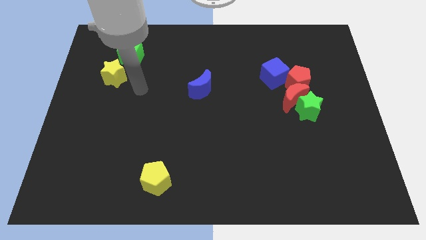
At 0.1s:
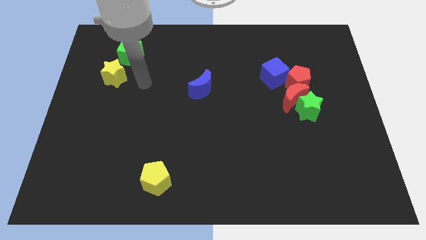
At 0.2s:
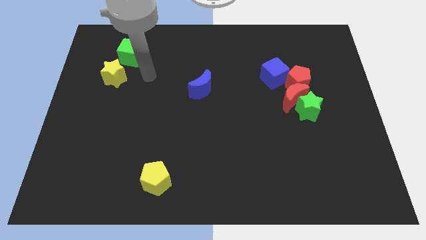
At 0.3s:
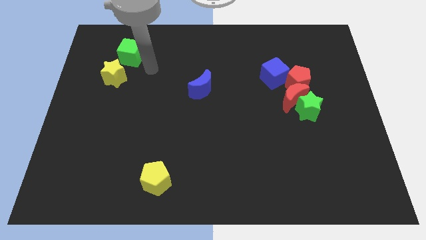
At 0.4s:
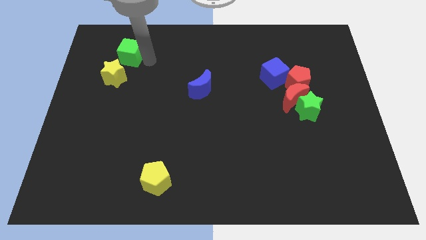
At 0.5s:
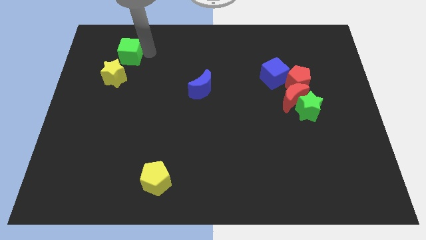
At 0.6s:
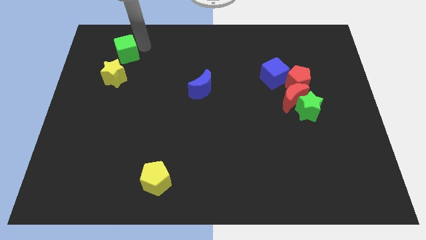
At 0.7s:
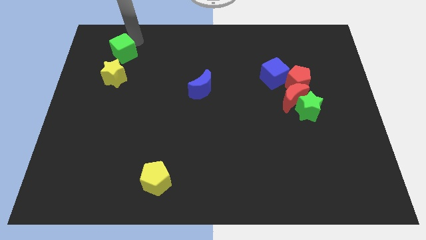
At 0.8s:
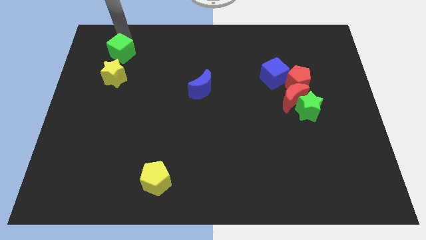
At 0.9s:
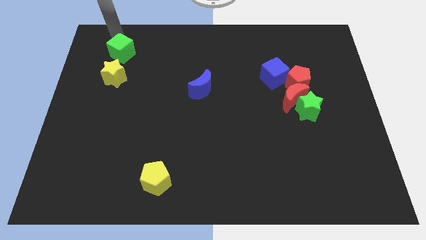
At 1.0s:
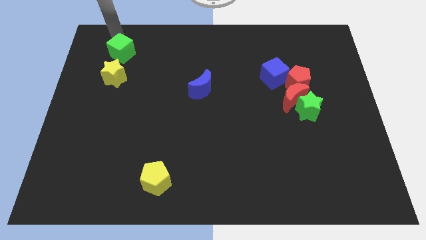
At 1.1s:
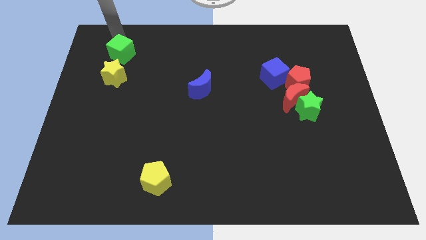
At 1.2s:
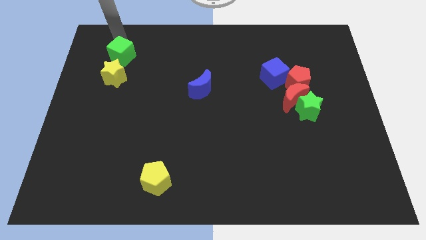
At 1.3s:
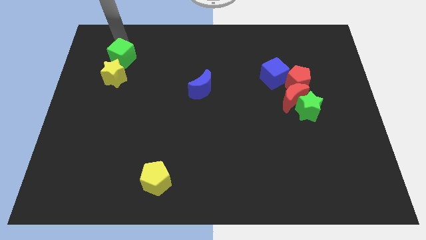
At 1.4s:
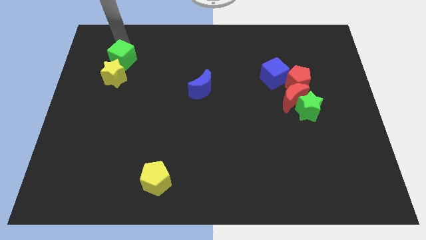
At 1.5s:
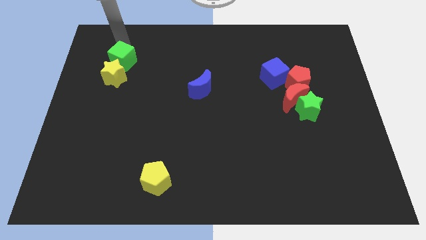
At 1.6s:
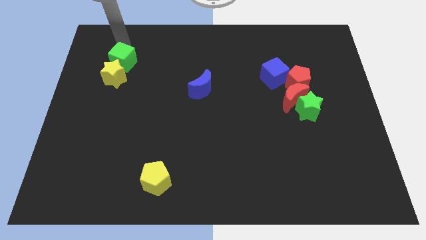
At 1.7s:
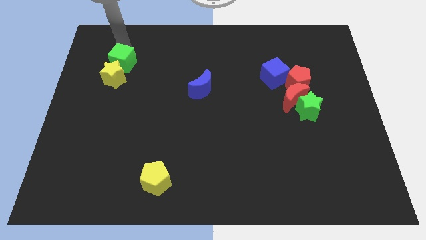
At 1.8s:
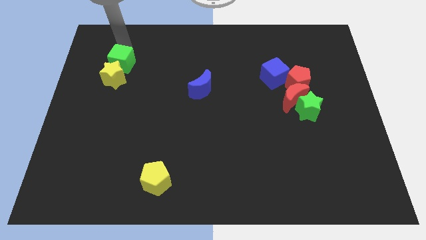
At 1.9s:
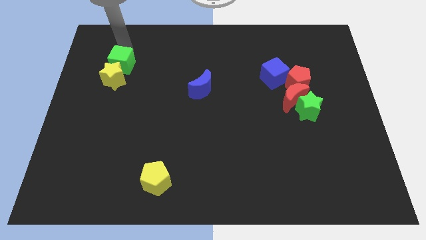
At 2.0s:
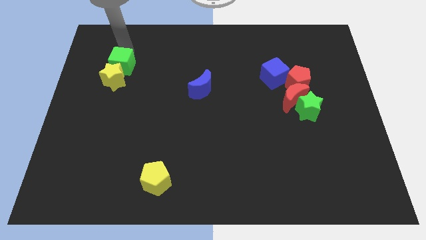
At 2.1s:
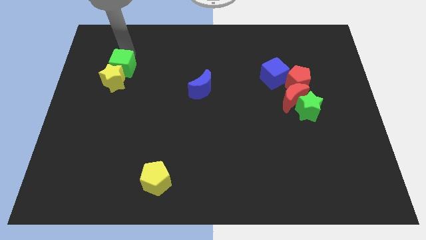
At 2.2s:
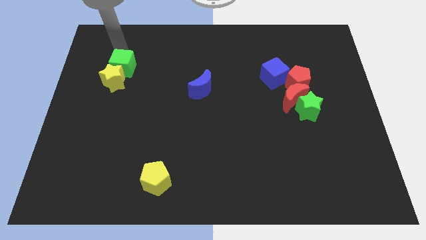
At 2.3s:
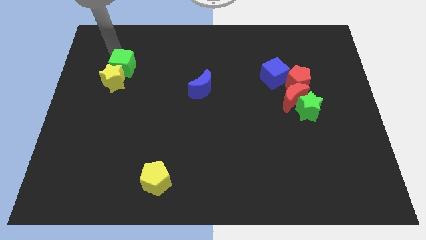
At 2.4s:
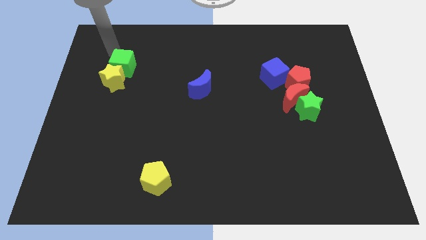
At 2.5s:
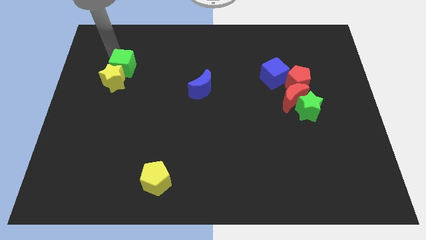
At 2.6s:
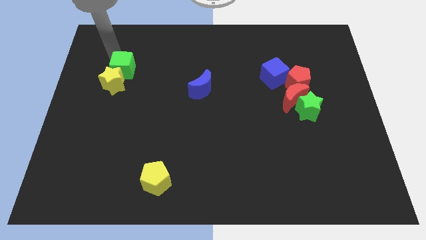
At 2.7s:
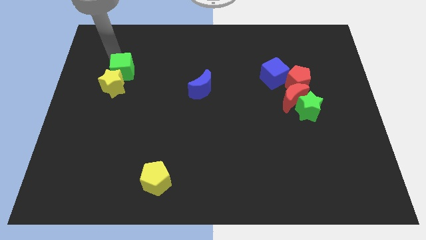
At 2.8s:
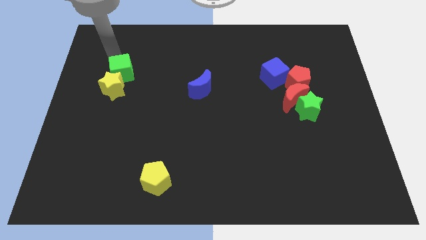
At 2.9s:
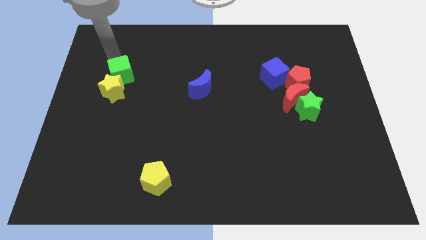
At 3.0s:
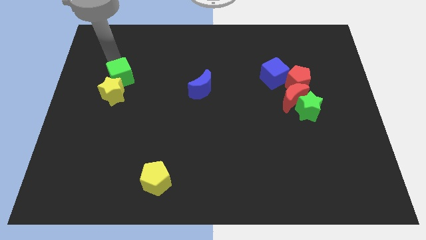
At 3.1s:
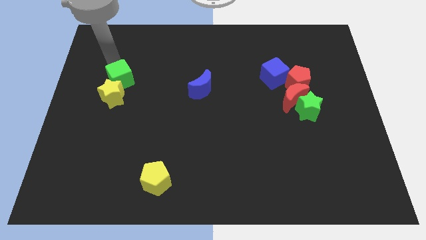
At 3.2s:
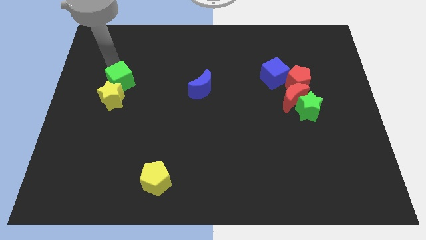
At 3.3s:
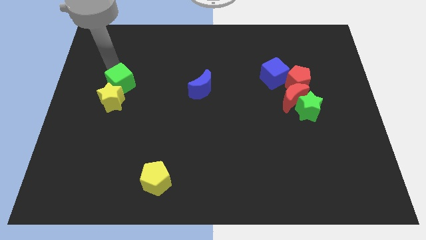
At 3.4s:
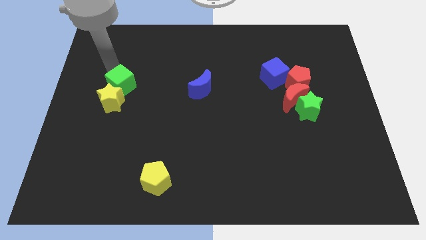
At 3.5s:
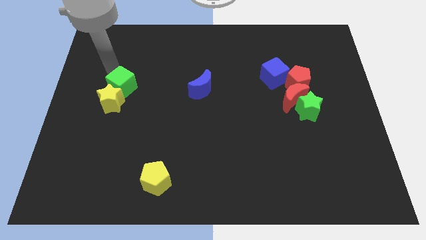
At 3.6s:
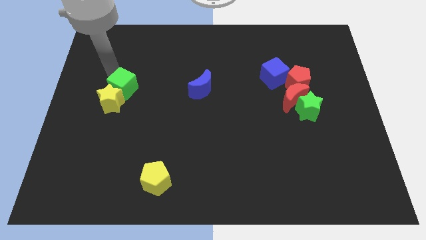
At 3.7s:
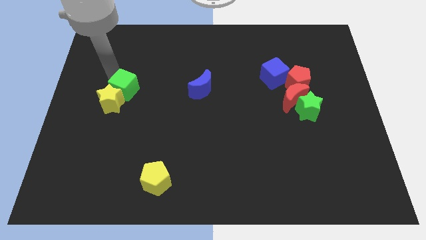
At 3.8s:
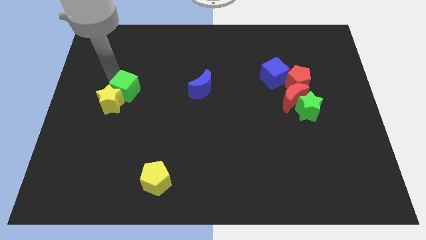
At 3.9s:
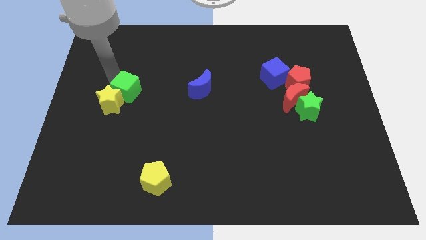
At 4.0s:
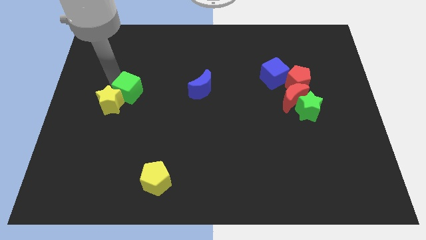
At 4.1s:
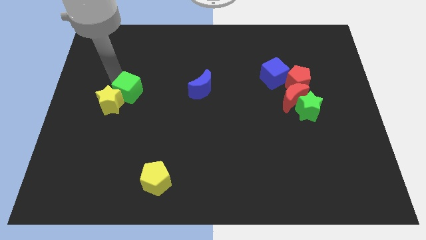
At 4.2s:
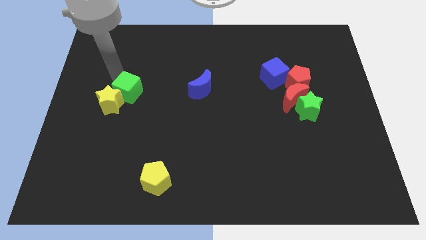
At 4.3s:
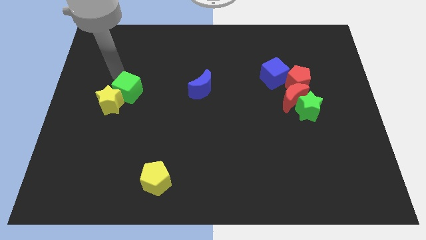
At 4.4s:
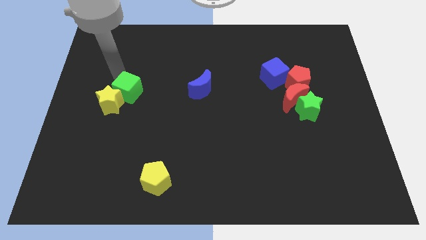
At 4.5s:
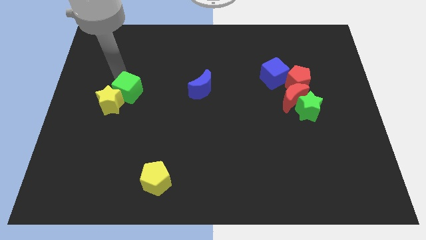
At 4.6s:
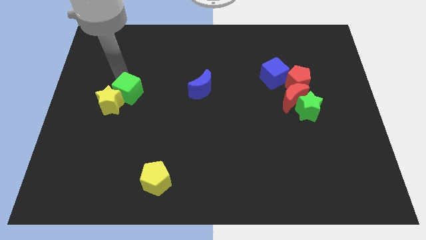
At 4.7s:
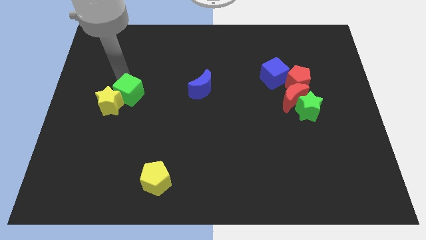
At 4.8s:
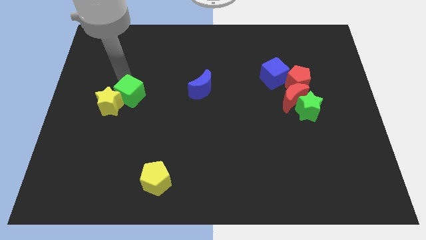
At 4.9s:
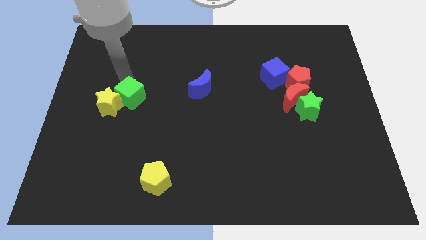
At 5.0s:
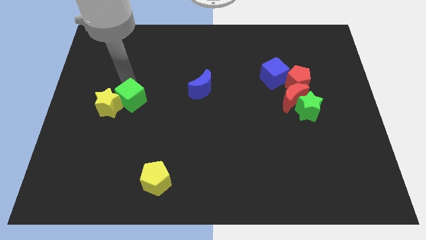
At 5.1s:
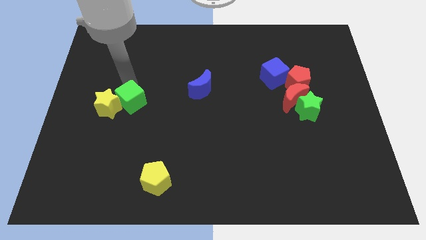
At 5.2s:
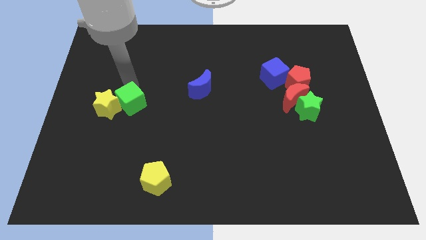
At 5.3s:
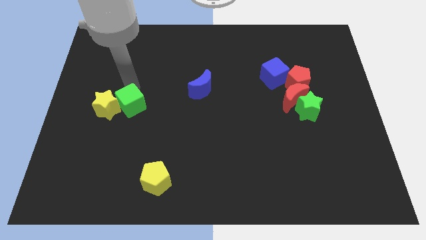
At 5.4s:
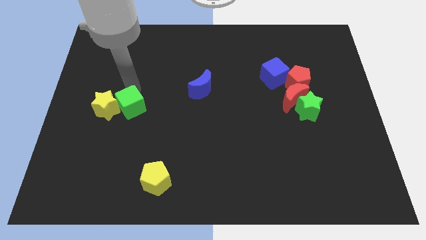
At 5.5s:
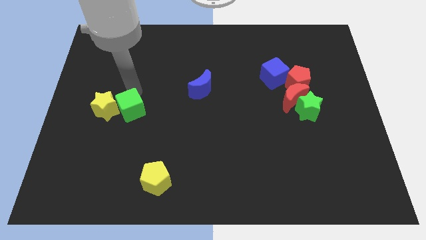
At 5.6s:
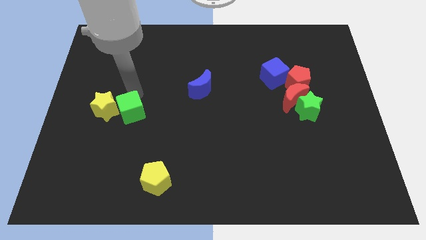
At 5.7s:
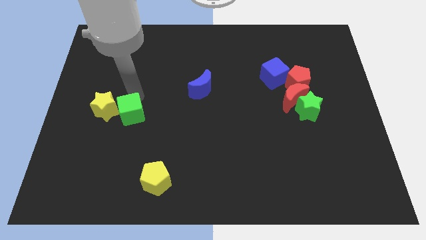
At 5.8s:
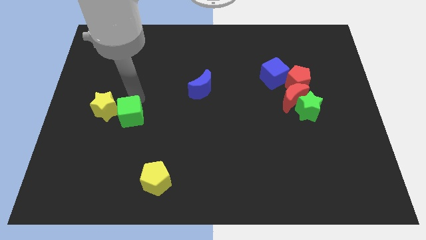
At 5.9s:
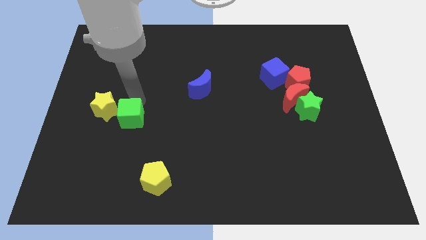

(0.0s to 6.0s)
slide the green cube downwards

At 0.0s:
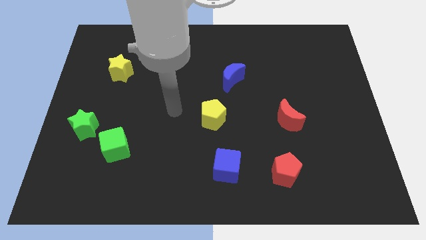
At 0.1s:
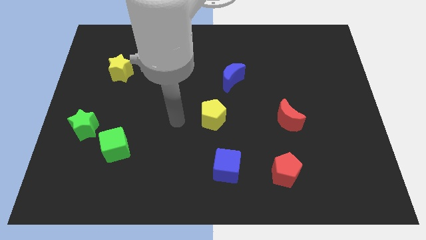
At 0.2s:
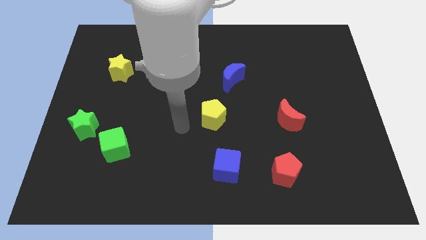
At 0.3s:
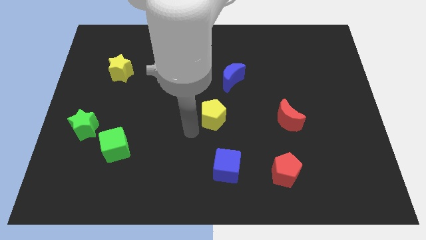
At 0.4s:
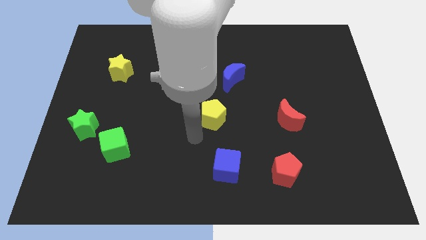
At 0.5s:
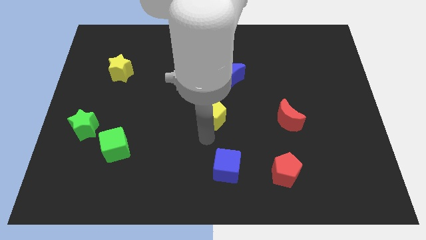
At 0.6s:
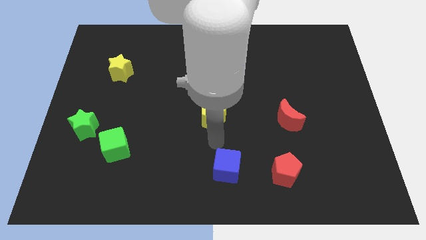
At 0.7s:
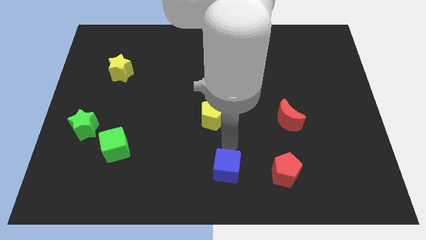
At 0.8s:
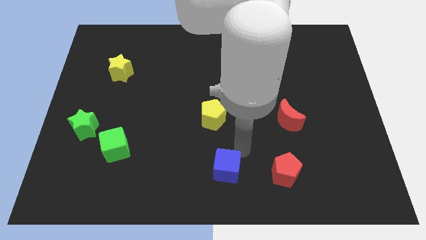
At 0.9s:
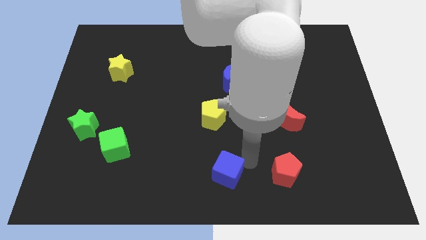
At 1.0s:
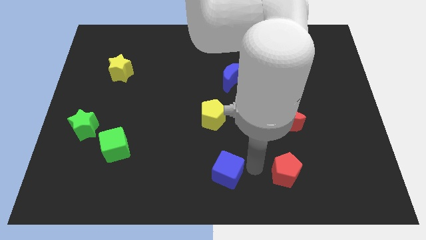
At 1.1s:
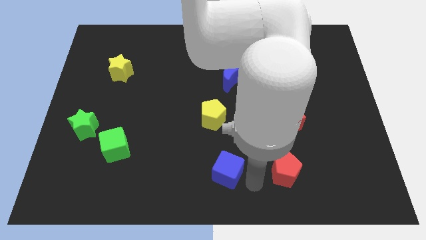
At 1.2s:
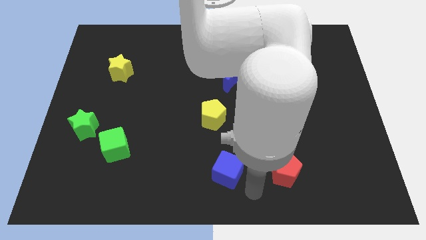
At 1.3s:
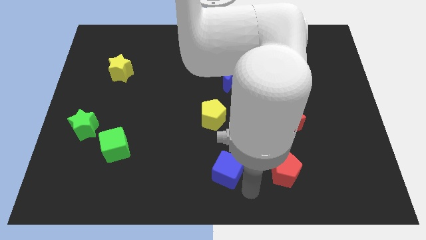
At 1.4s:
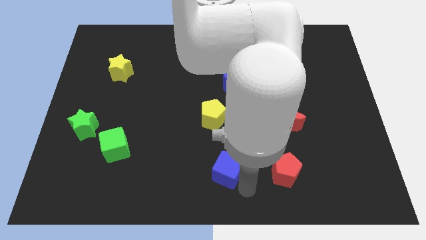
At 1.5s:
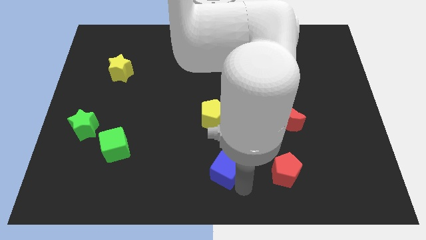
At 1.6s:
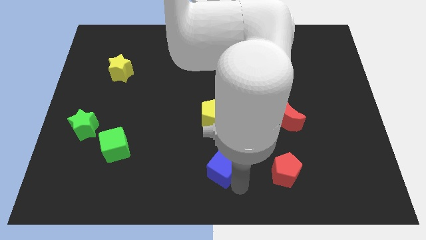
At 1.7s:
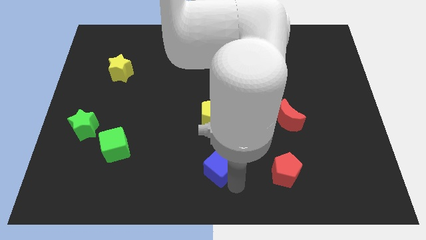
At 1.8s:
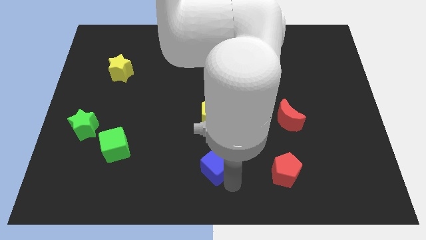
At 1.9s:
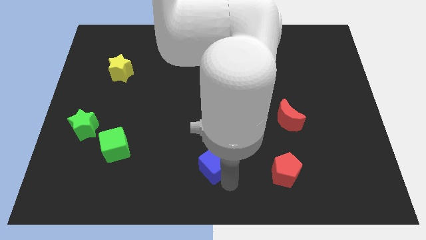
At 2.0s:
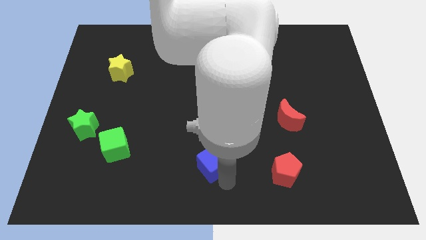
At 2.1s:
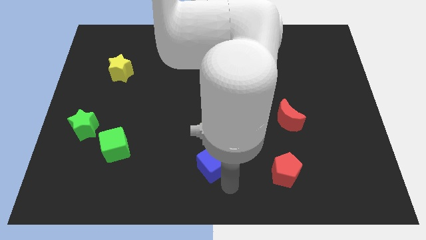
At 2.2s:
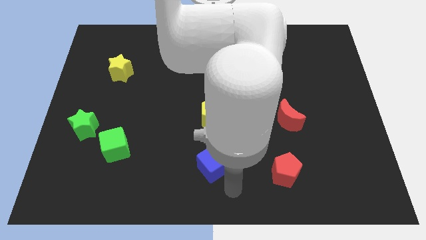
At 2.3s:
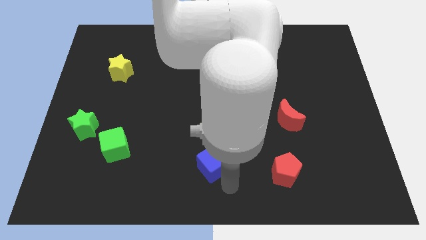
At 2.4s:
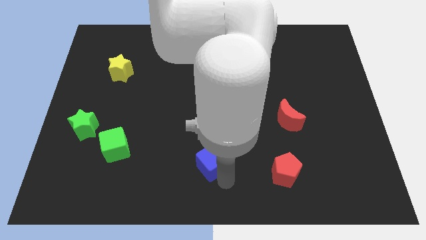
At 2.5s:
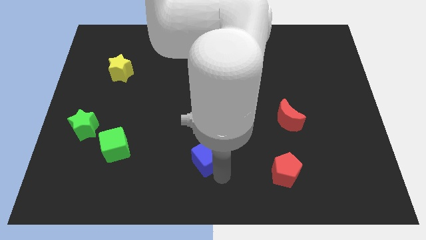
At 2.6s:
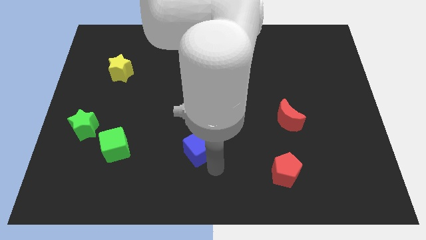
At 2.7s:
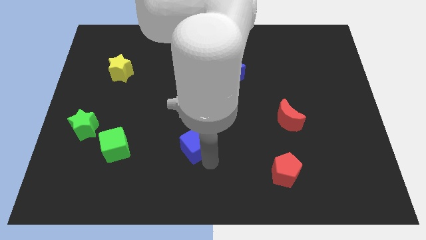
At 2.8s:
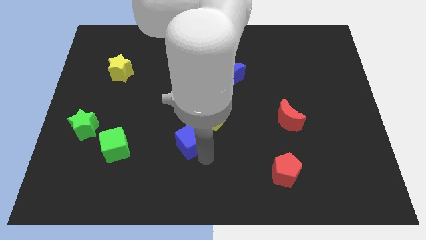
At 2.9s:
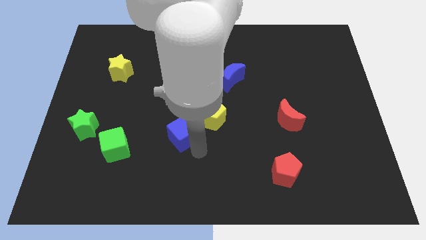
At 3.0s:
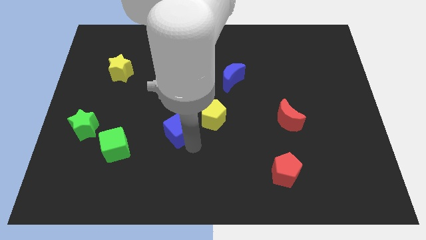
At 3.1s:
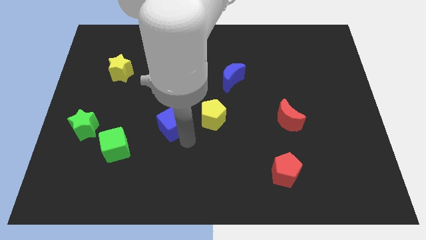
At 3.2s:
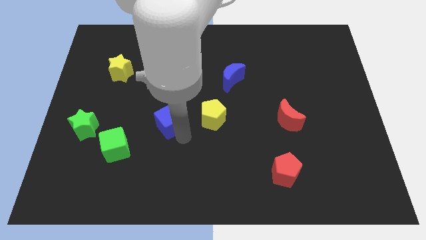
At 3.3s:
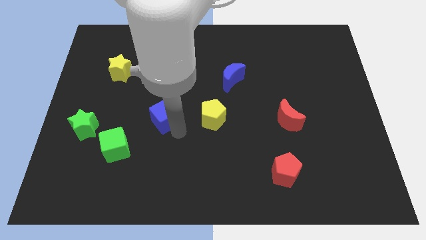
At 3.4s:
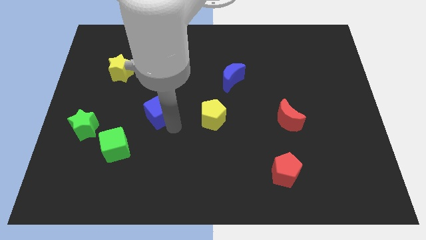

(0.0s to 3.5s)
move the blue cube upwards and to the left
